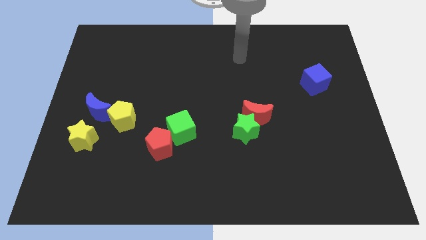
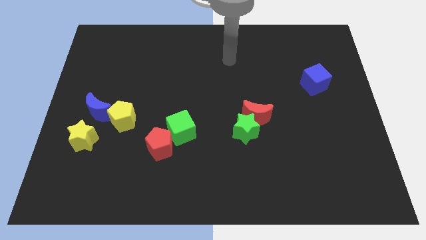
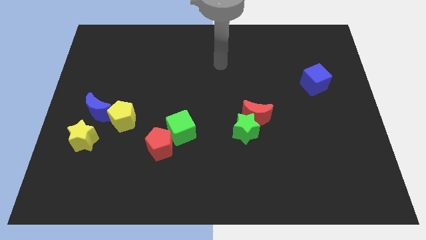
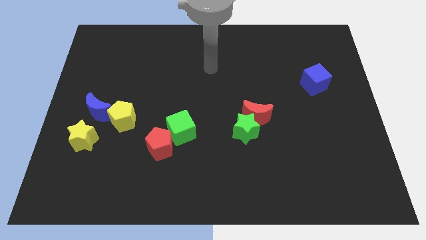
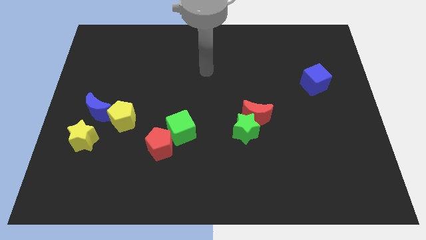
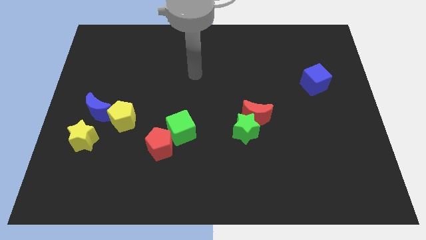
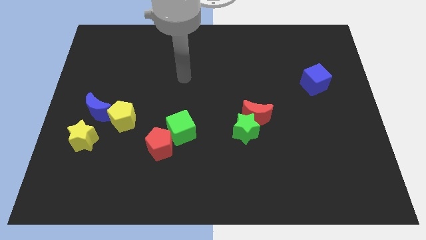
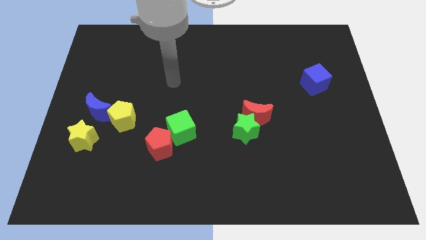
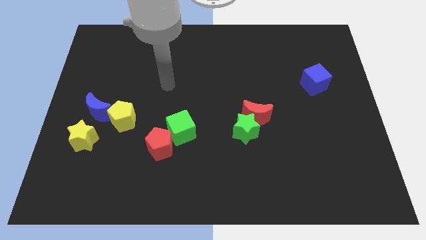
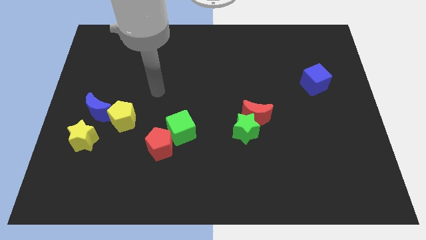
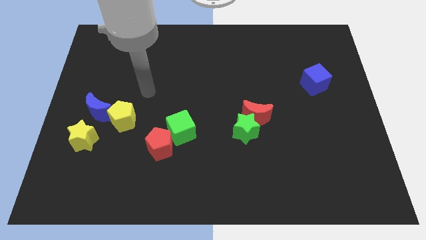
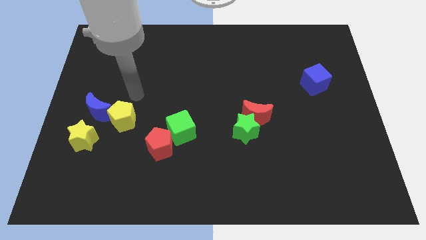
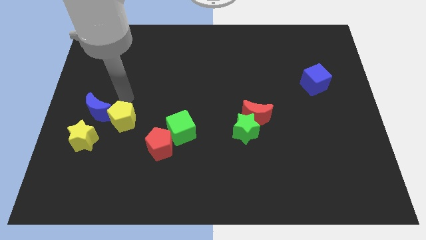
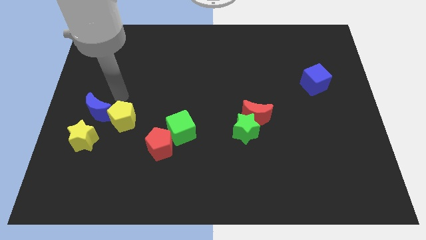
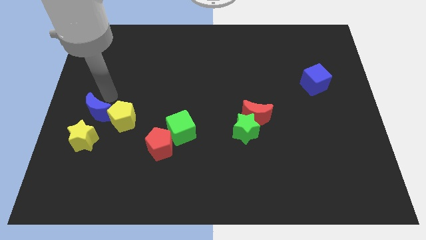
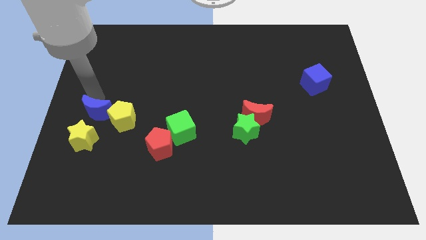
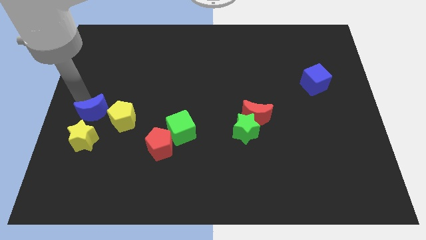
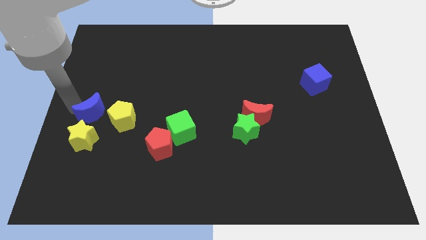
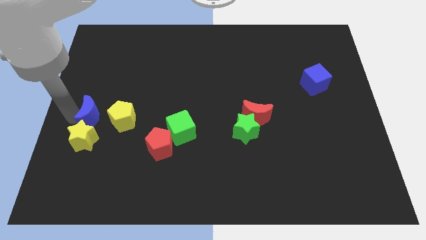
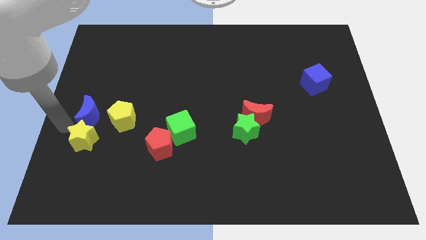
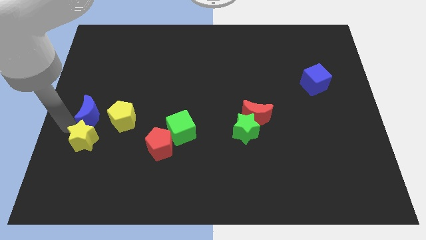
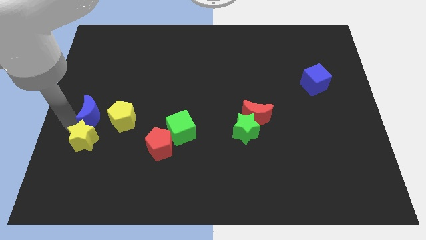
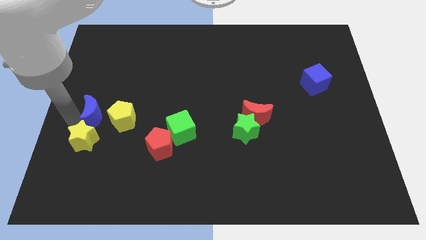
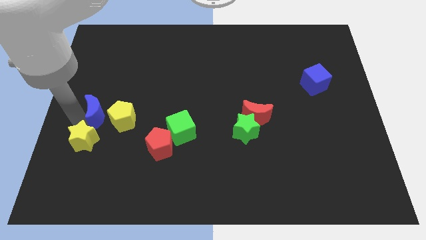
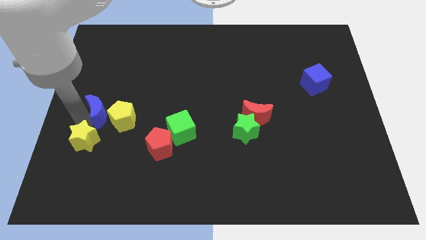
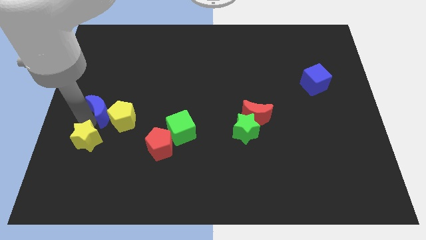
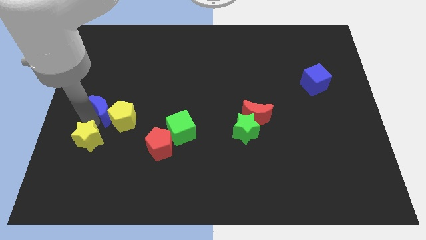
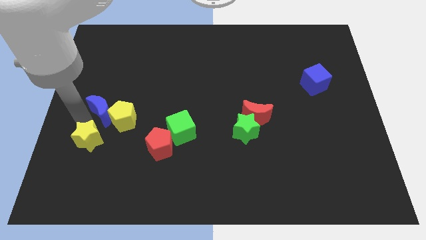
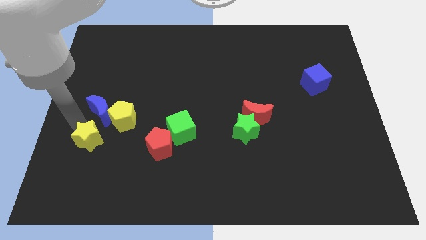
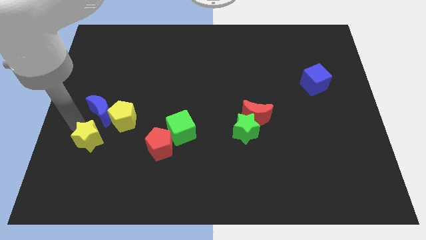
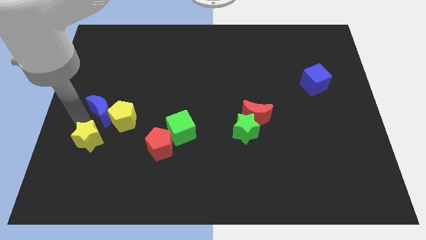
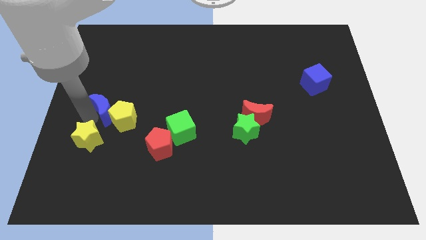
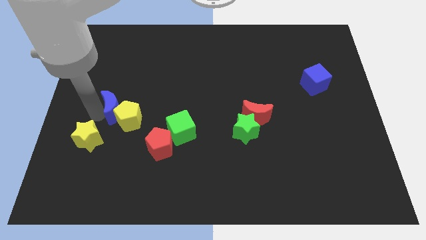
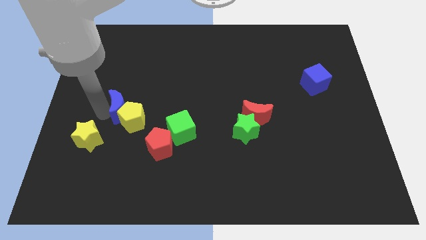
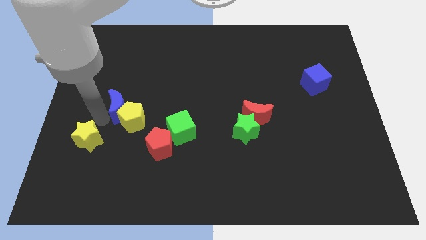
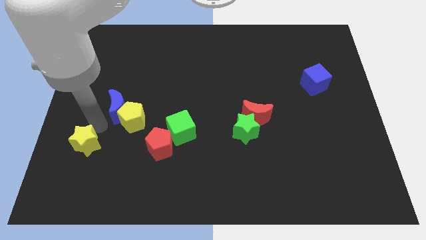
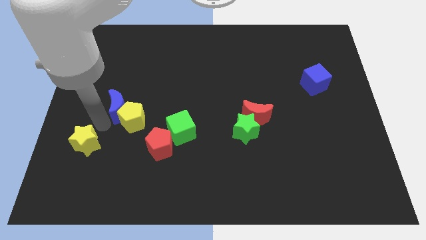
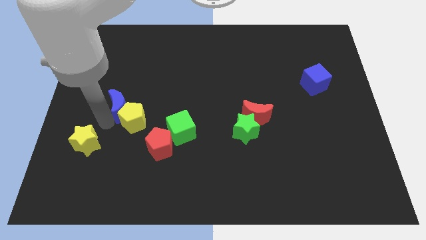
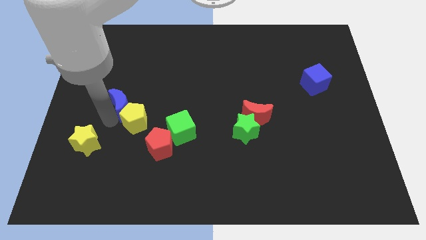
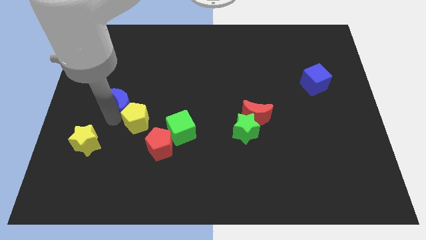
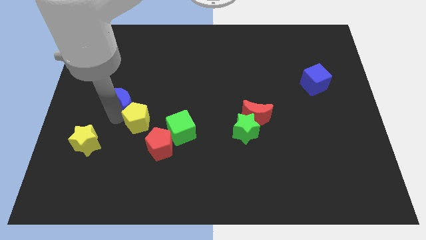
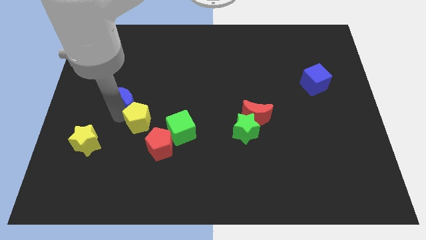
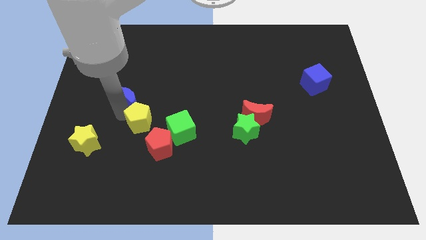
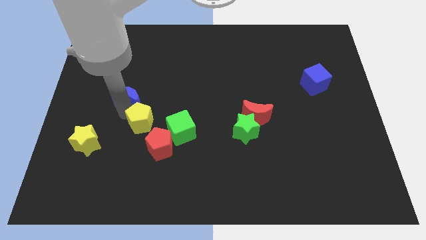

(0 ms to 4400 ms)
slightly move the blue moon upwards and then to the right

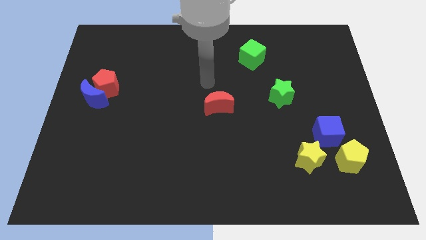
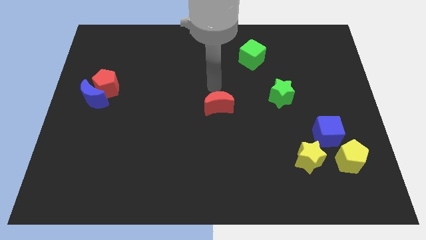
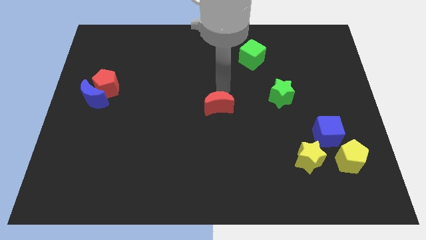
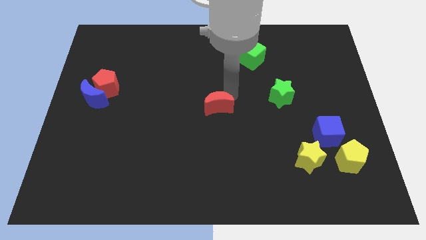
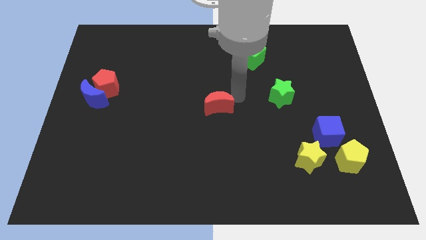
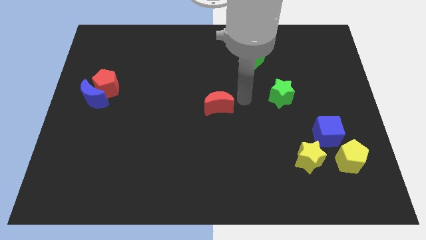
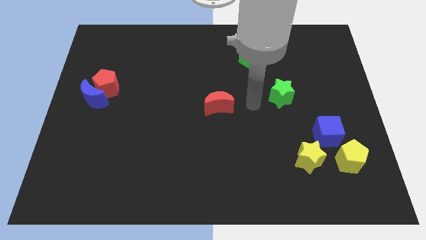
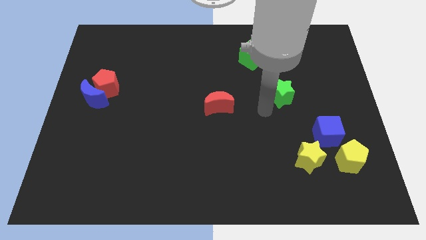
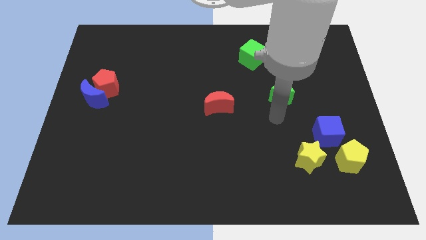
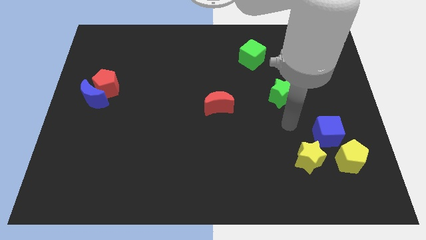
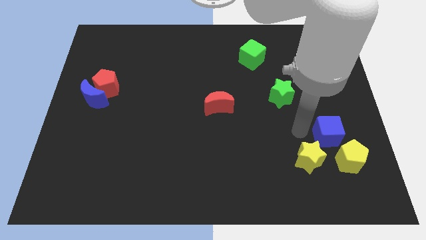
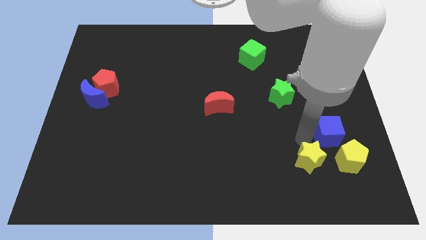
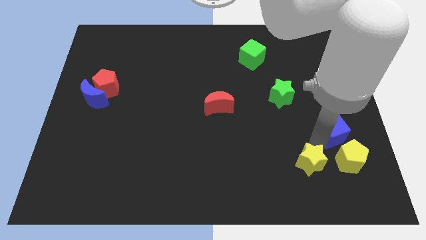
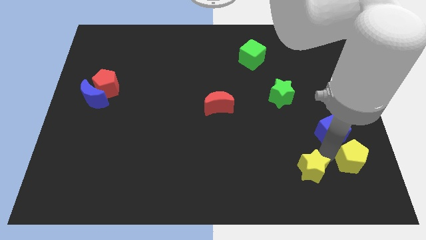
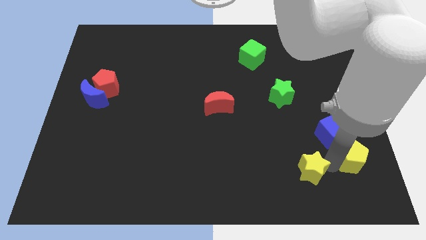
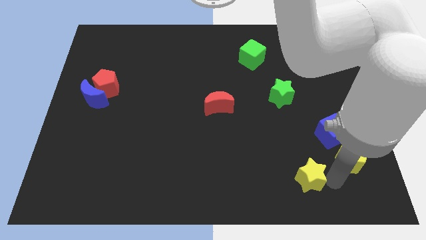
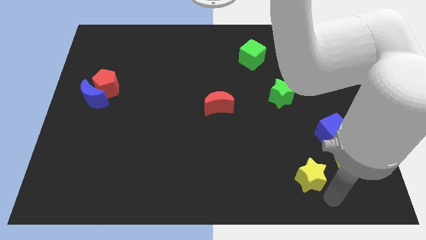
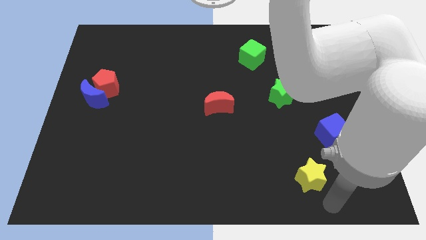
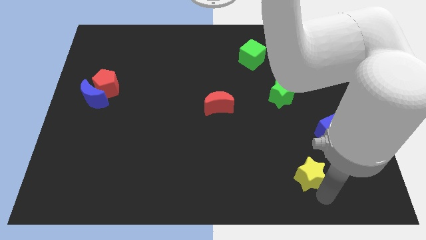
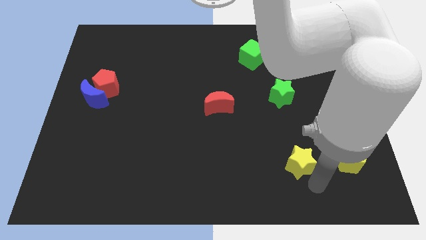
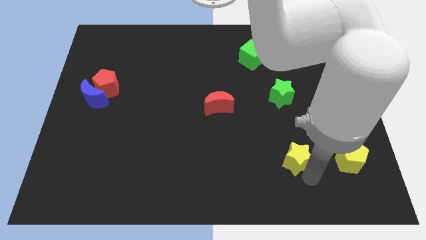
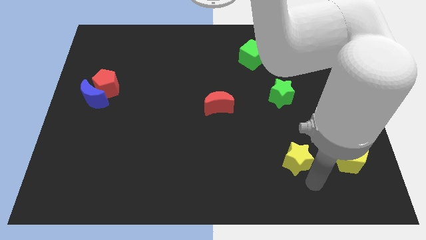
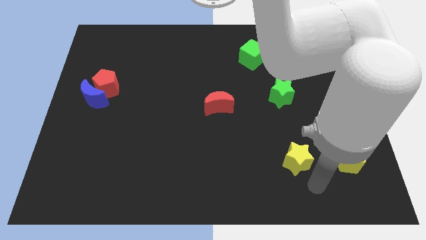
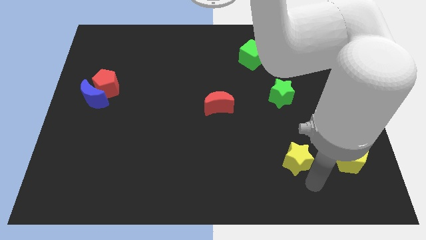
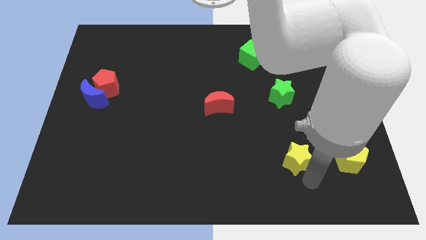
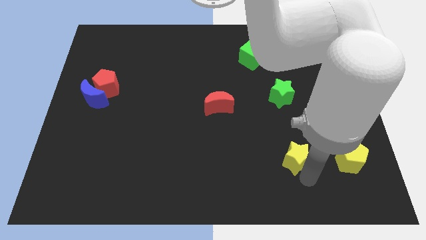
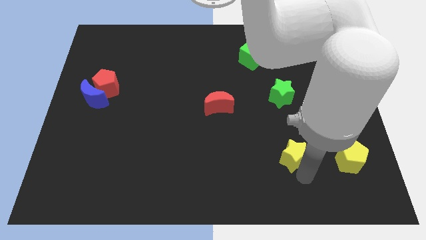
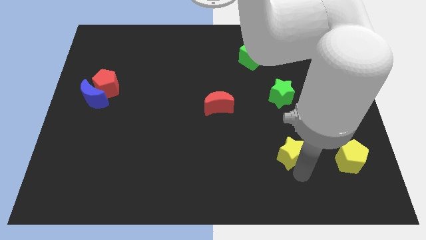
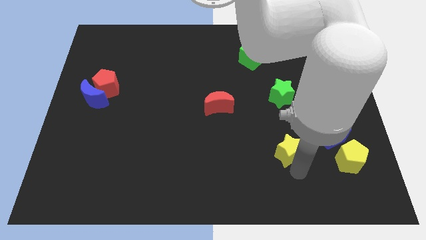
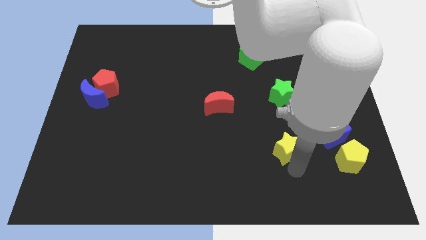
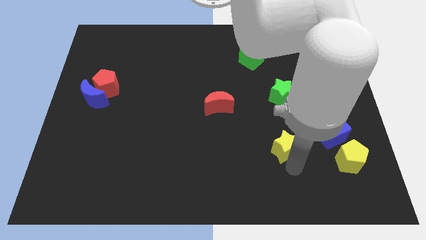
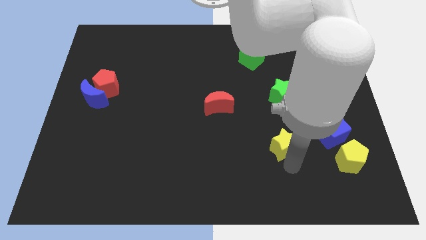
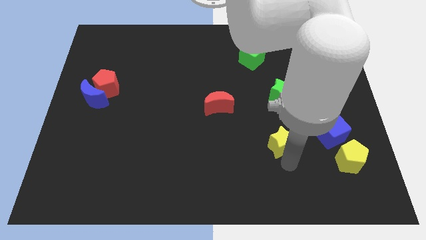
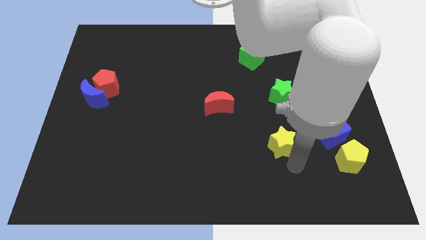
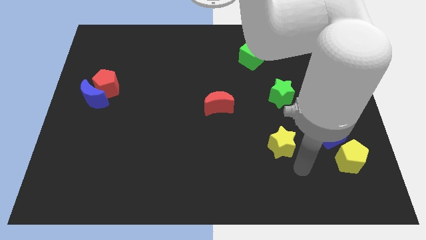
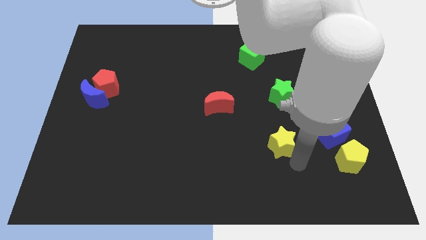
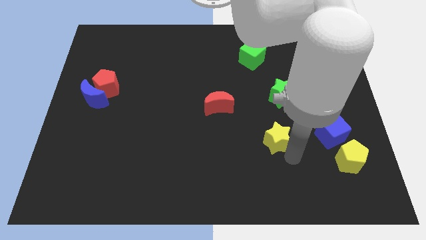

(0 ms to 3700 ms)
slightly slide the yellow star upwards and to the left
